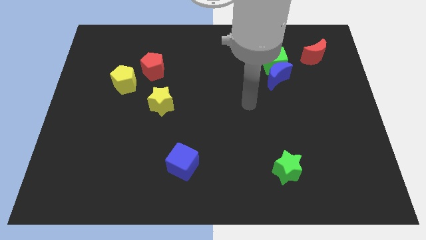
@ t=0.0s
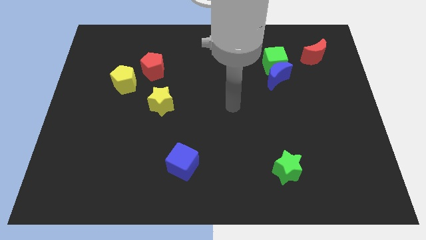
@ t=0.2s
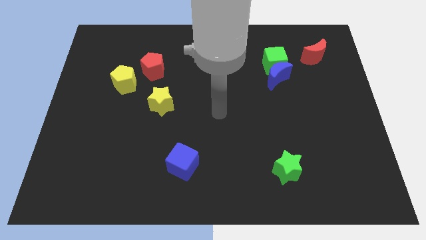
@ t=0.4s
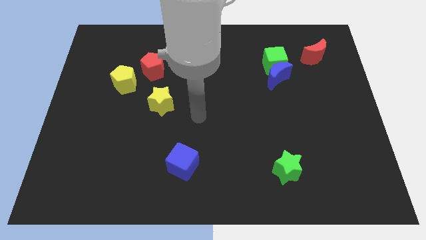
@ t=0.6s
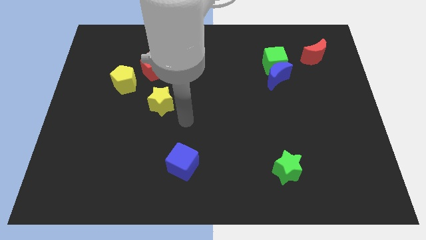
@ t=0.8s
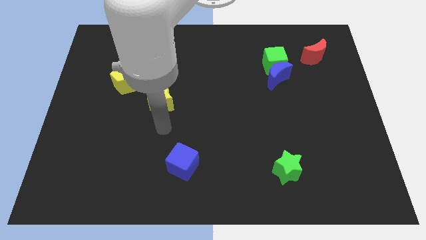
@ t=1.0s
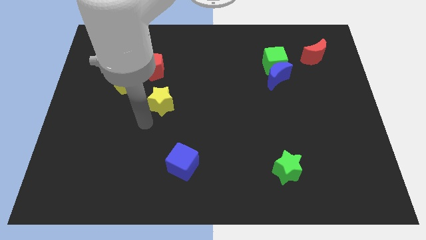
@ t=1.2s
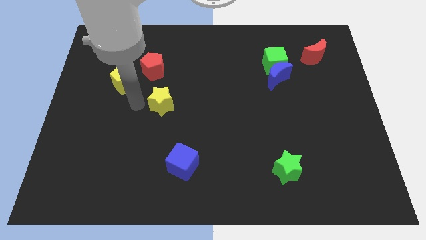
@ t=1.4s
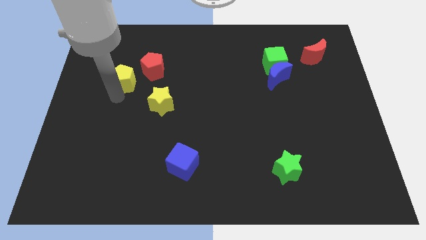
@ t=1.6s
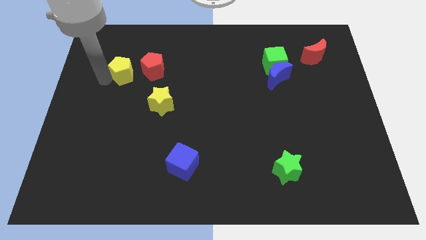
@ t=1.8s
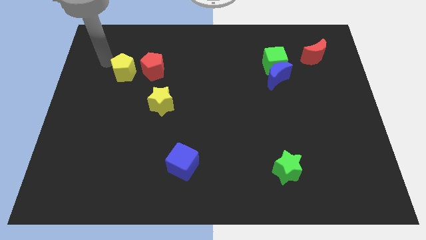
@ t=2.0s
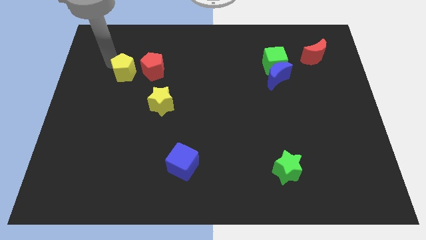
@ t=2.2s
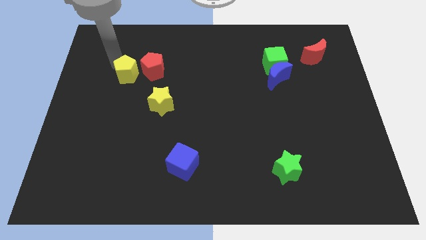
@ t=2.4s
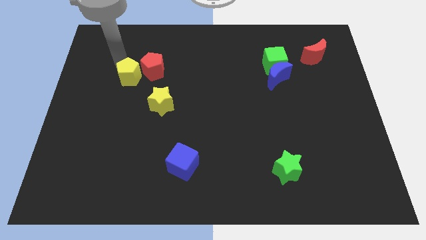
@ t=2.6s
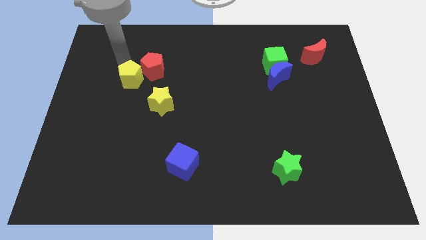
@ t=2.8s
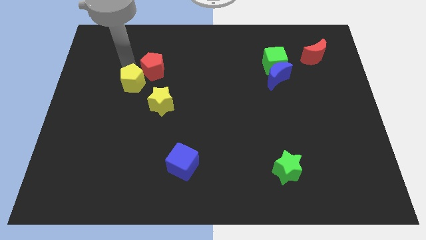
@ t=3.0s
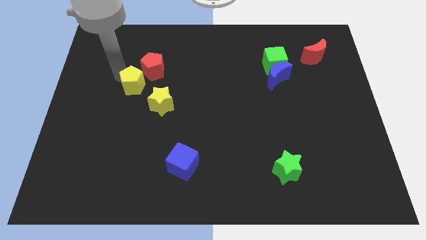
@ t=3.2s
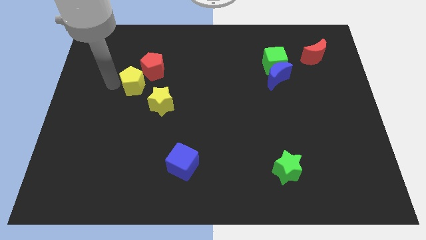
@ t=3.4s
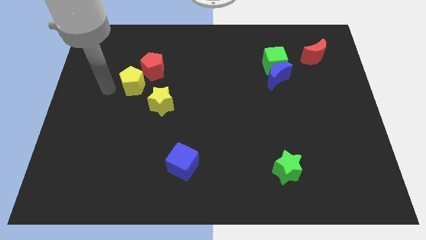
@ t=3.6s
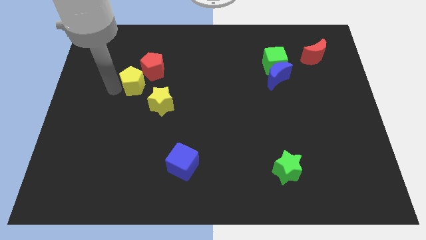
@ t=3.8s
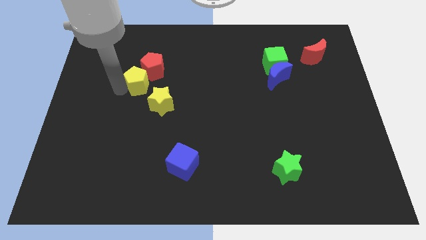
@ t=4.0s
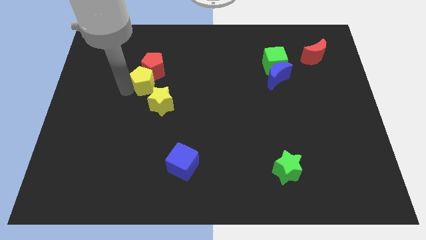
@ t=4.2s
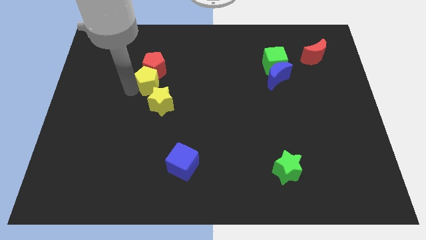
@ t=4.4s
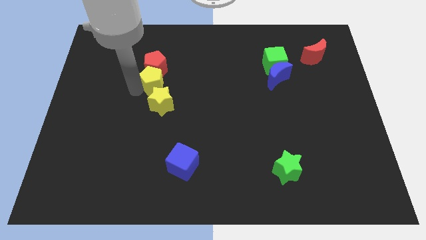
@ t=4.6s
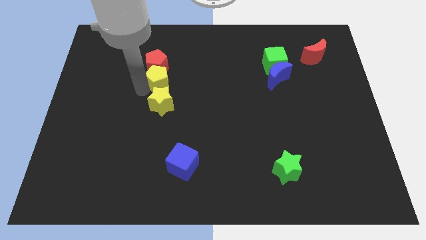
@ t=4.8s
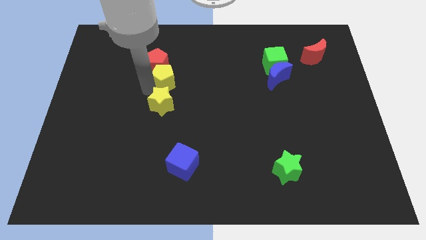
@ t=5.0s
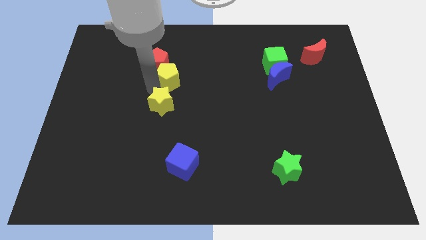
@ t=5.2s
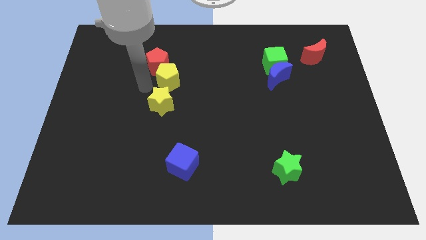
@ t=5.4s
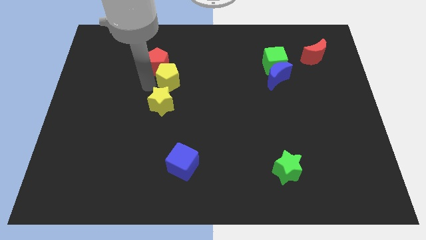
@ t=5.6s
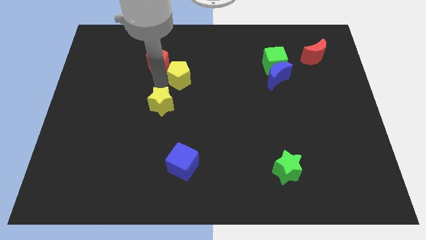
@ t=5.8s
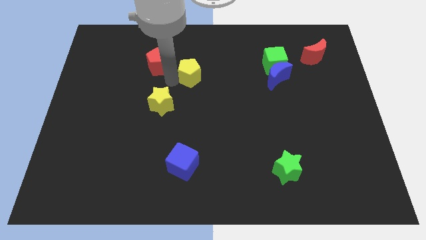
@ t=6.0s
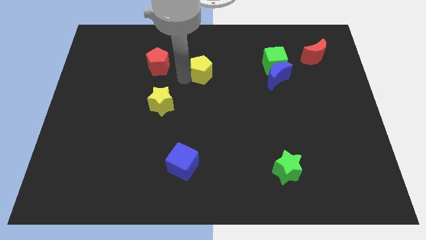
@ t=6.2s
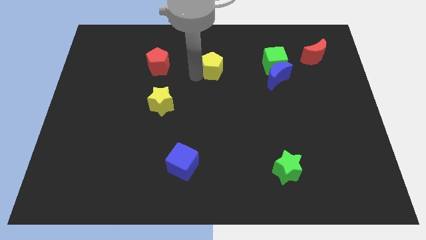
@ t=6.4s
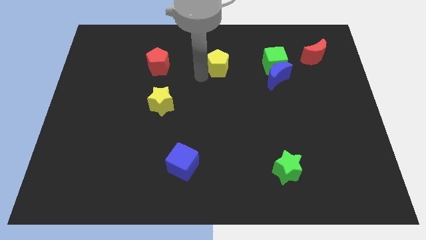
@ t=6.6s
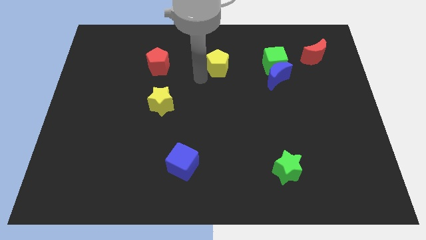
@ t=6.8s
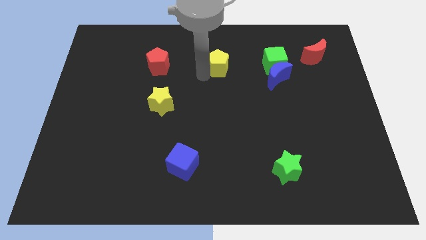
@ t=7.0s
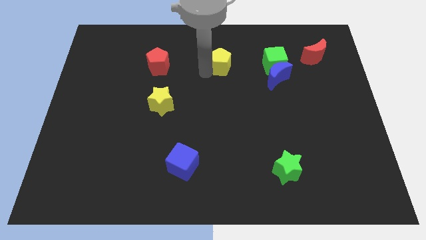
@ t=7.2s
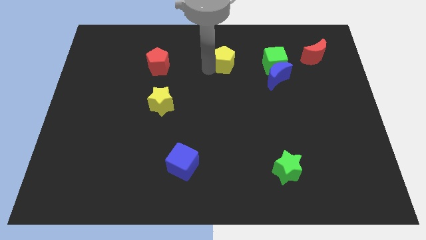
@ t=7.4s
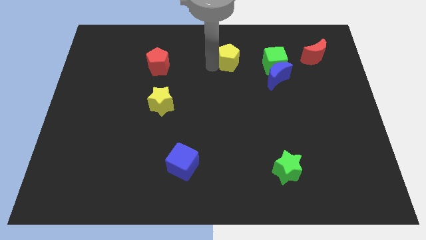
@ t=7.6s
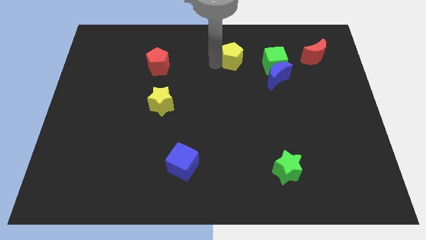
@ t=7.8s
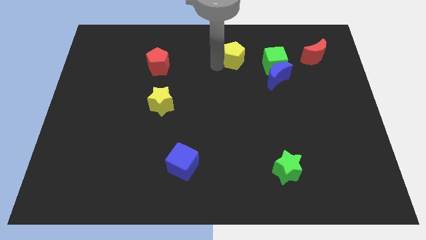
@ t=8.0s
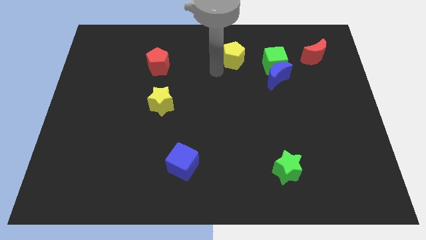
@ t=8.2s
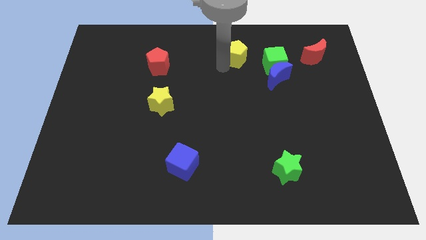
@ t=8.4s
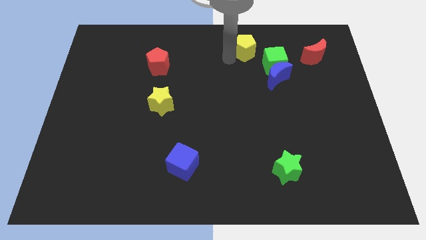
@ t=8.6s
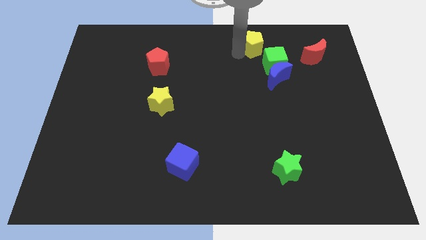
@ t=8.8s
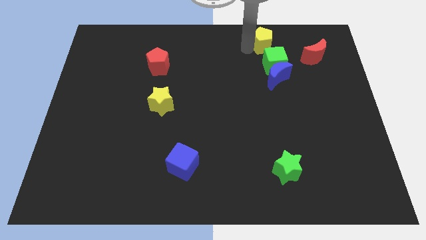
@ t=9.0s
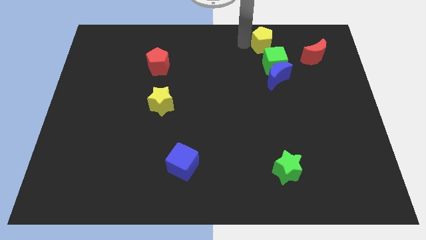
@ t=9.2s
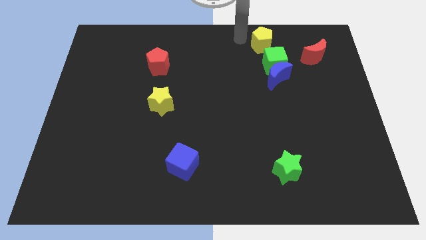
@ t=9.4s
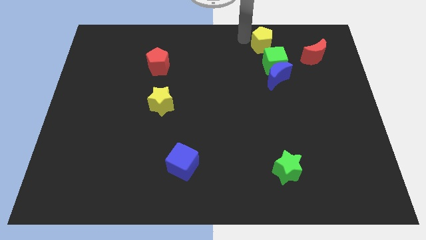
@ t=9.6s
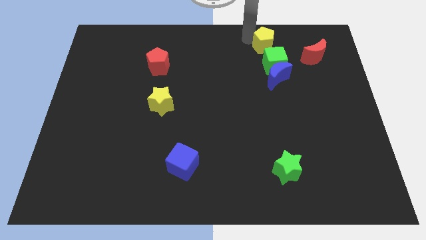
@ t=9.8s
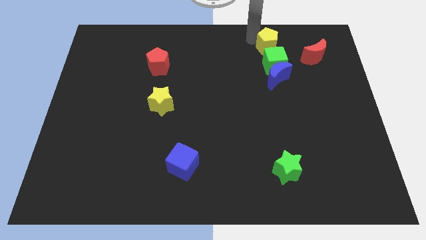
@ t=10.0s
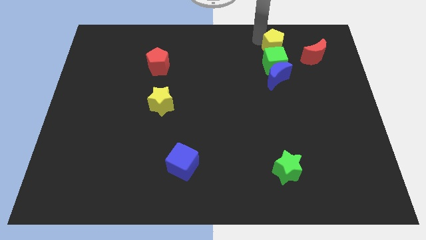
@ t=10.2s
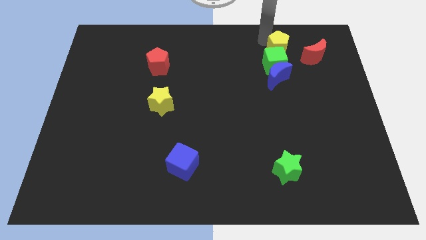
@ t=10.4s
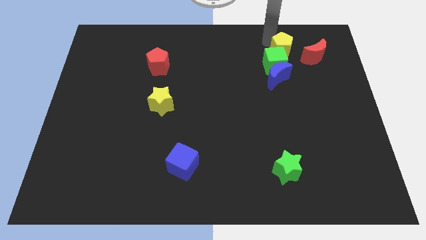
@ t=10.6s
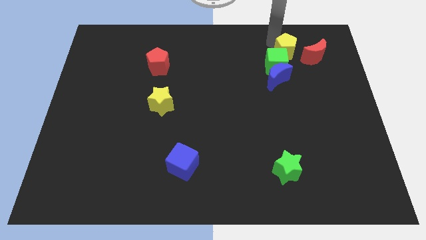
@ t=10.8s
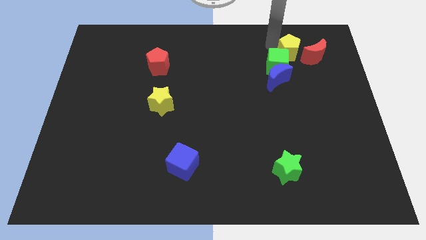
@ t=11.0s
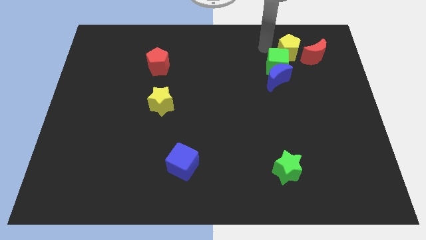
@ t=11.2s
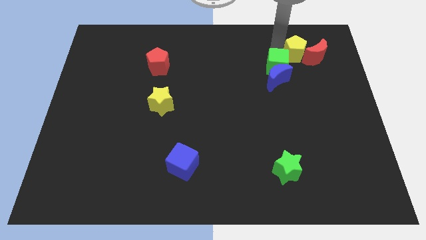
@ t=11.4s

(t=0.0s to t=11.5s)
put the yellow pentagon towards the red moon

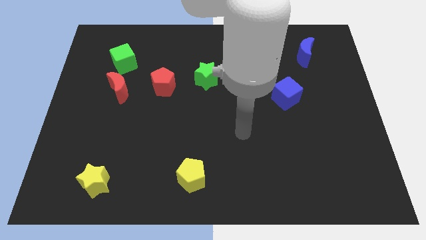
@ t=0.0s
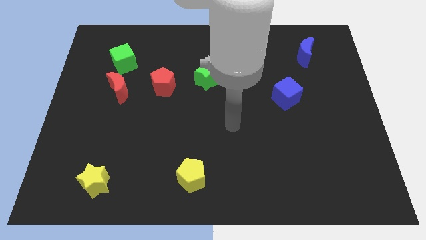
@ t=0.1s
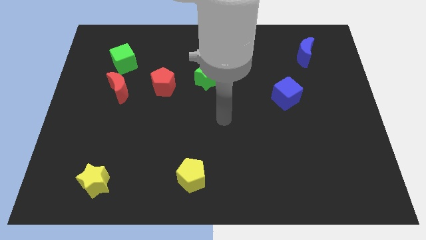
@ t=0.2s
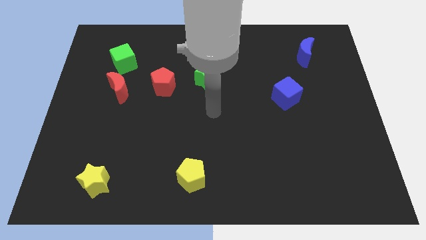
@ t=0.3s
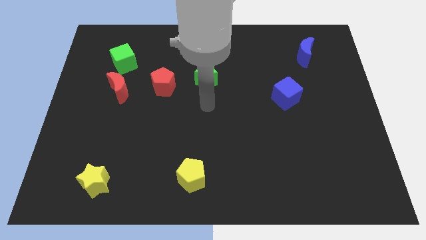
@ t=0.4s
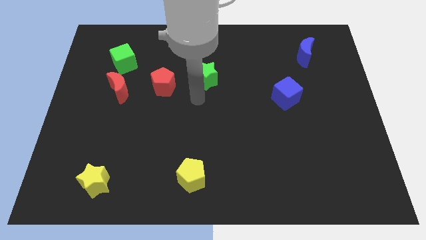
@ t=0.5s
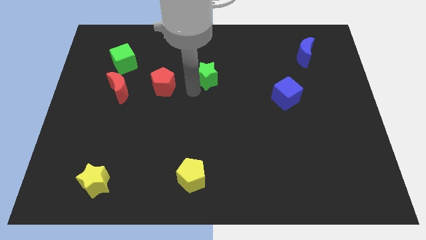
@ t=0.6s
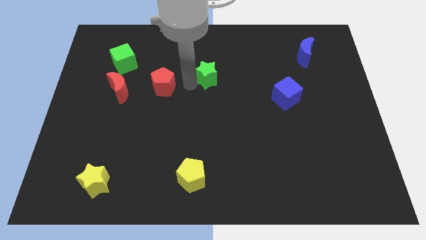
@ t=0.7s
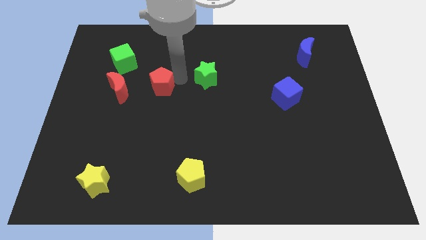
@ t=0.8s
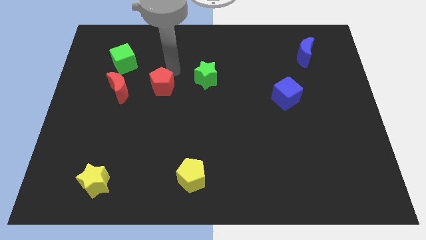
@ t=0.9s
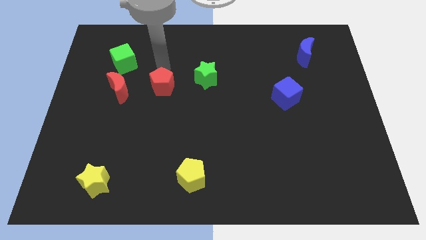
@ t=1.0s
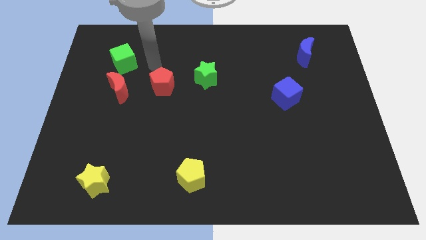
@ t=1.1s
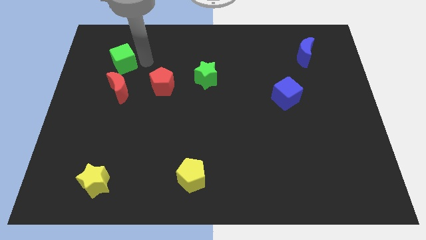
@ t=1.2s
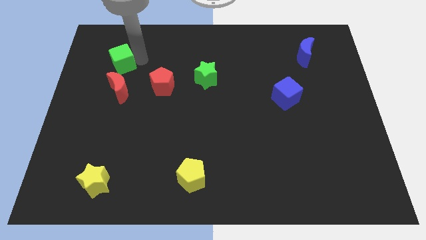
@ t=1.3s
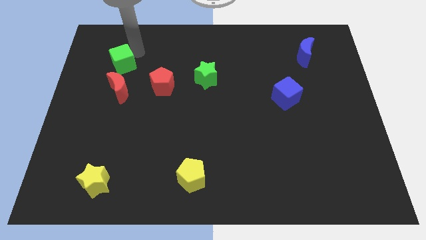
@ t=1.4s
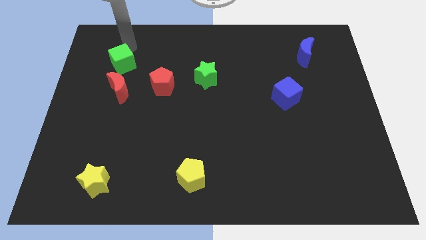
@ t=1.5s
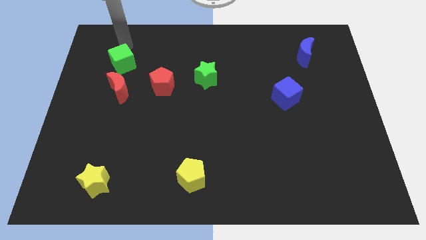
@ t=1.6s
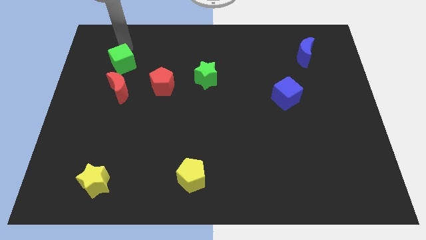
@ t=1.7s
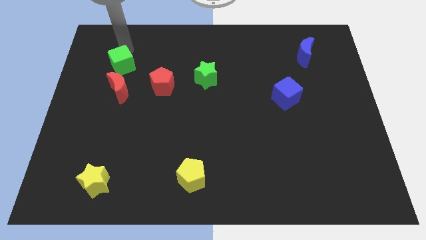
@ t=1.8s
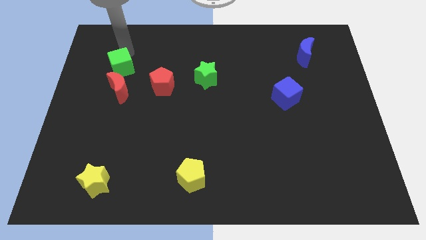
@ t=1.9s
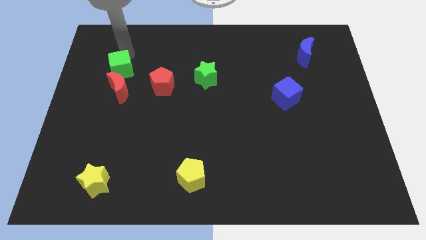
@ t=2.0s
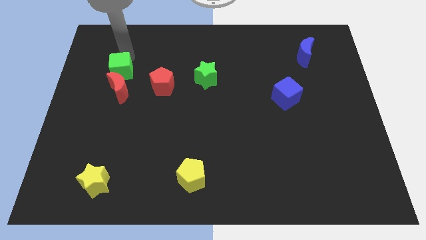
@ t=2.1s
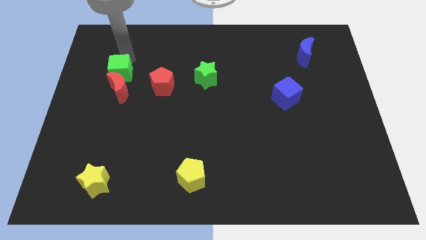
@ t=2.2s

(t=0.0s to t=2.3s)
slide the green cube next to the red moon
